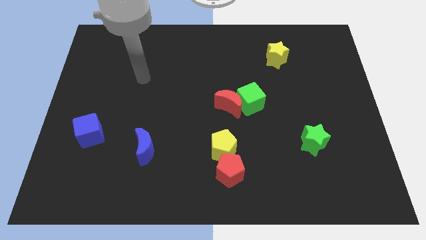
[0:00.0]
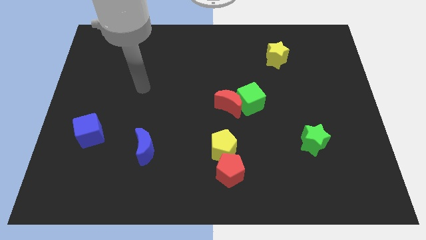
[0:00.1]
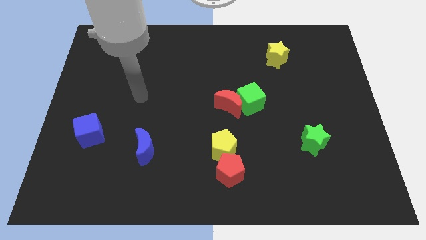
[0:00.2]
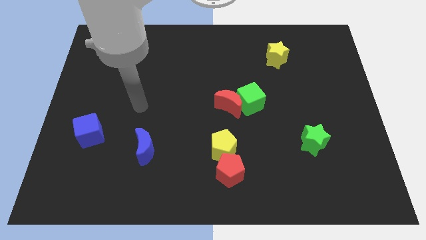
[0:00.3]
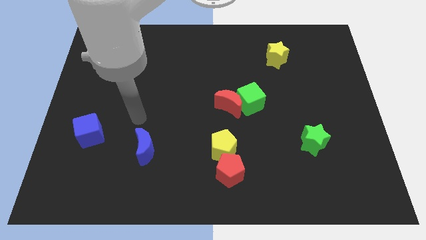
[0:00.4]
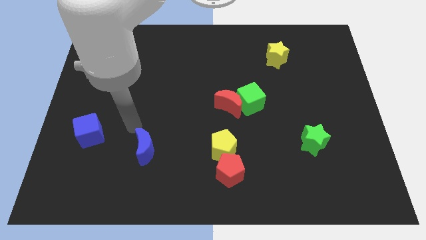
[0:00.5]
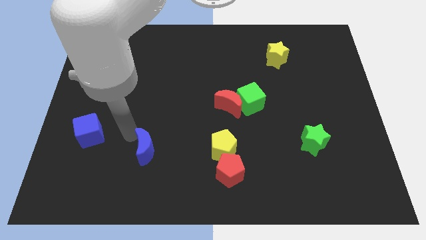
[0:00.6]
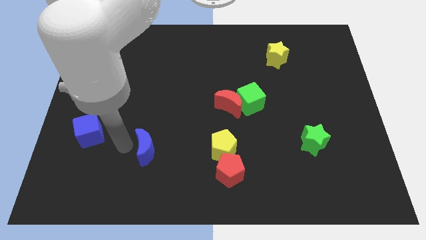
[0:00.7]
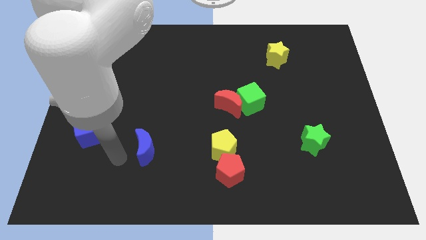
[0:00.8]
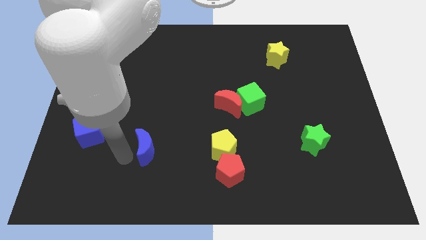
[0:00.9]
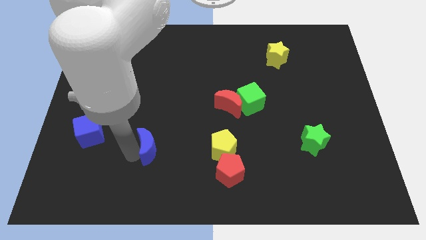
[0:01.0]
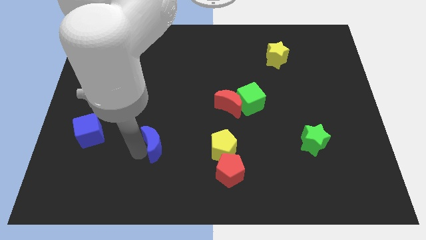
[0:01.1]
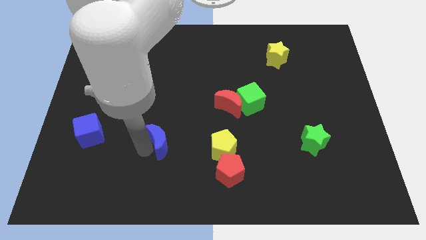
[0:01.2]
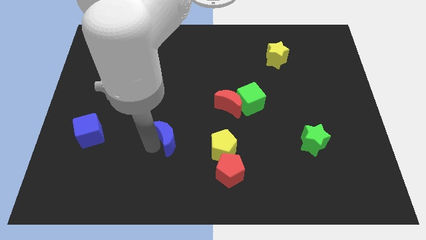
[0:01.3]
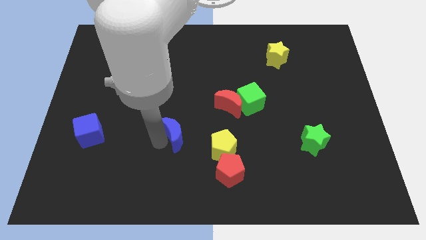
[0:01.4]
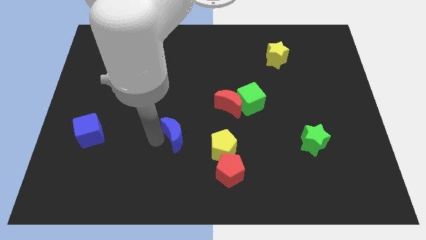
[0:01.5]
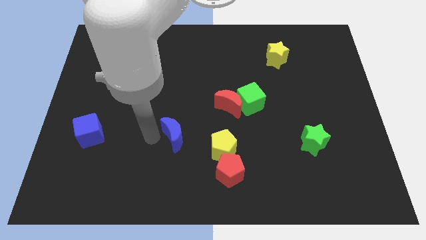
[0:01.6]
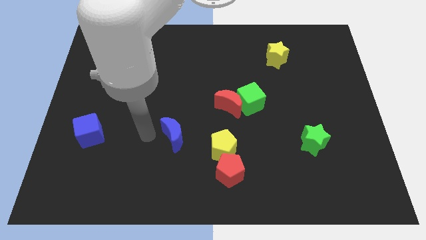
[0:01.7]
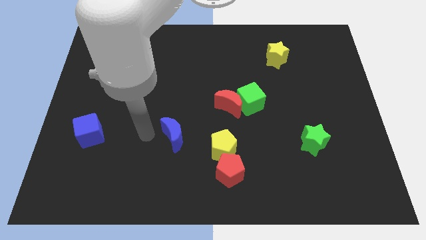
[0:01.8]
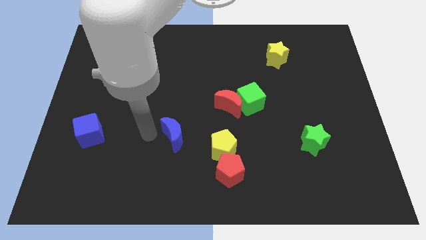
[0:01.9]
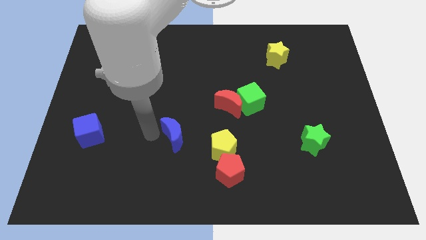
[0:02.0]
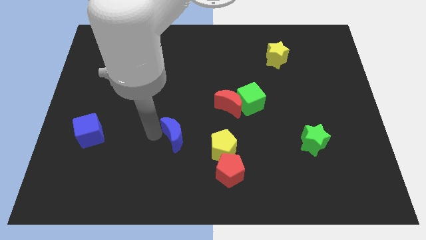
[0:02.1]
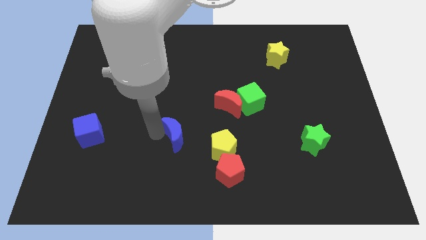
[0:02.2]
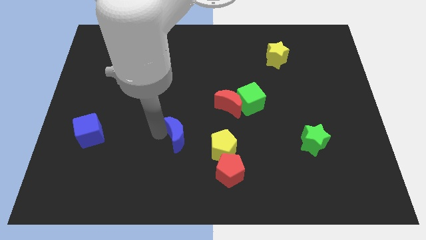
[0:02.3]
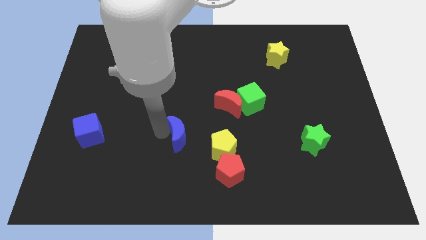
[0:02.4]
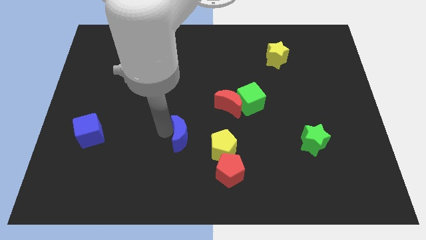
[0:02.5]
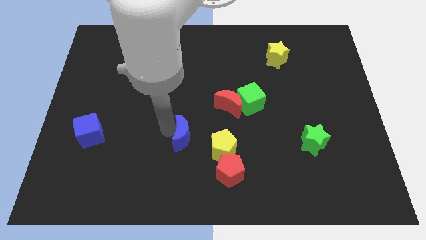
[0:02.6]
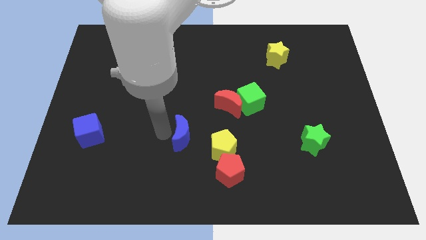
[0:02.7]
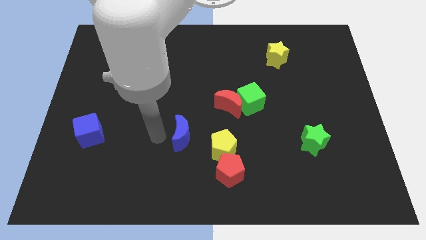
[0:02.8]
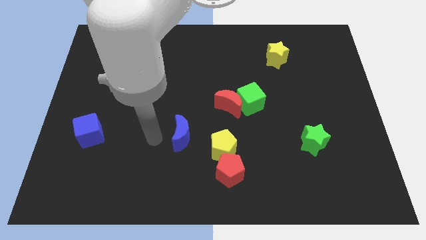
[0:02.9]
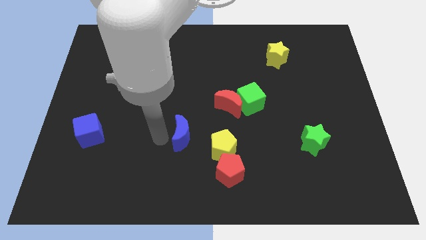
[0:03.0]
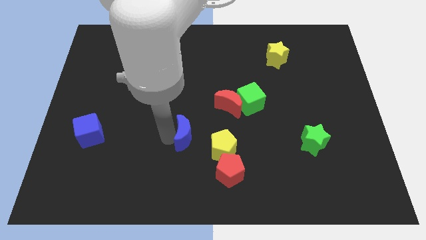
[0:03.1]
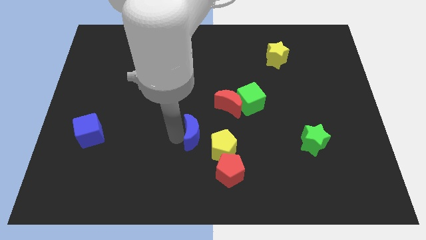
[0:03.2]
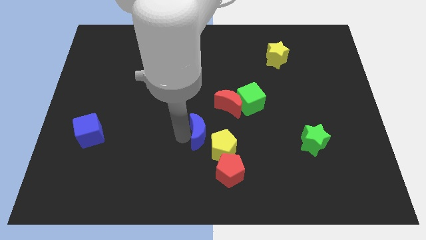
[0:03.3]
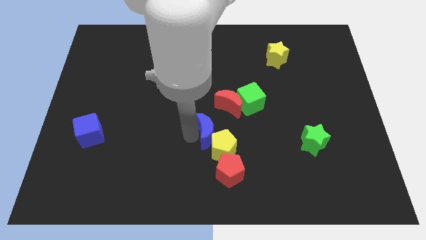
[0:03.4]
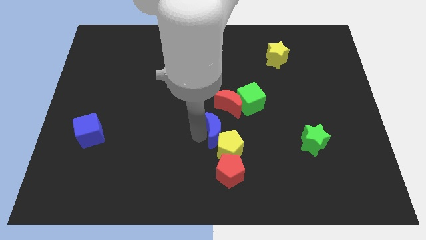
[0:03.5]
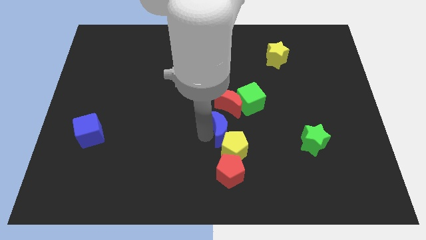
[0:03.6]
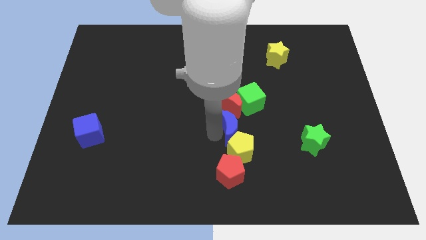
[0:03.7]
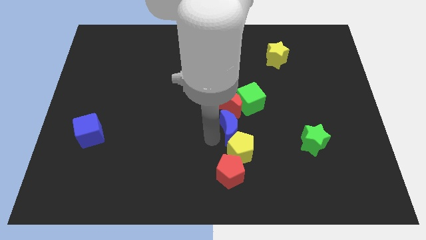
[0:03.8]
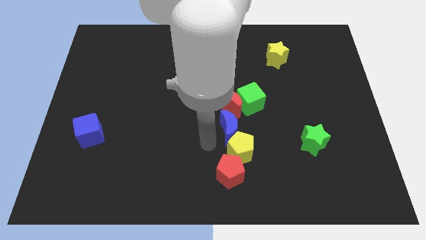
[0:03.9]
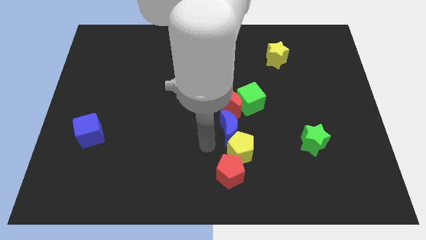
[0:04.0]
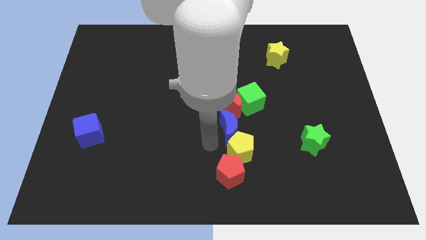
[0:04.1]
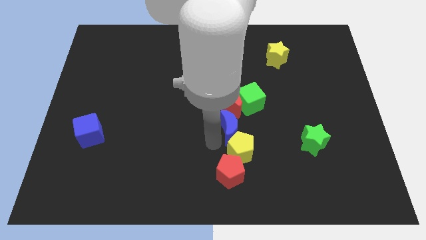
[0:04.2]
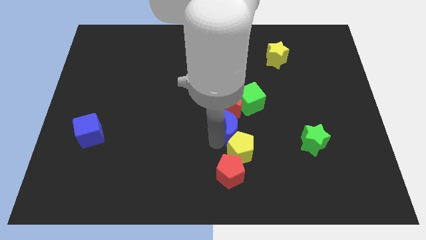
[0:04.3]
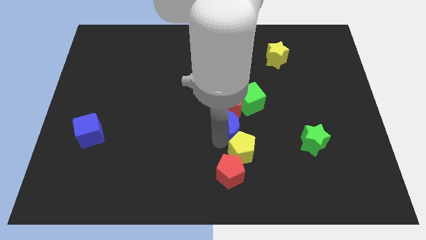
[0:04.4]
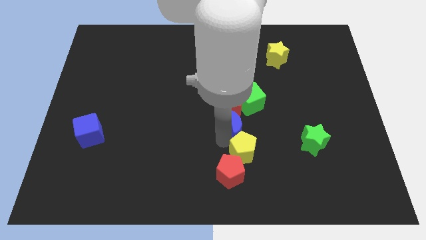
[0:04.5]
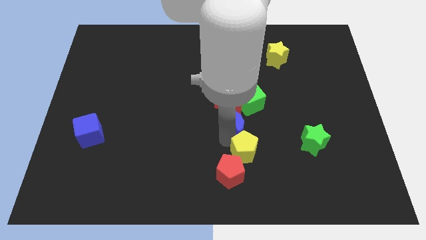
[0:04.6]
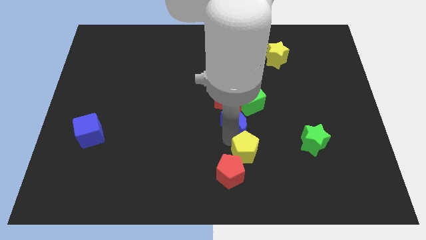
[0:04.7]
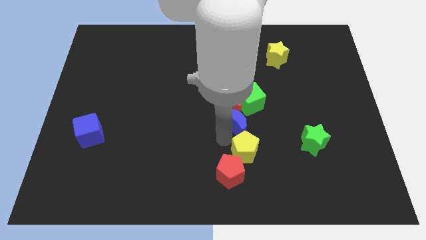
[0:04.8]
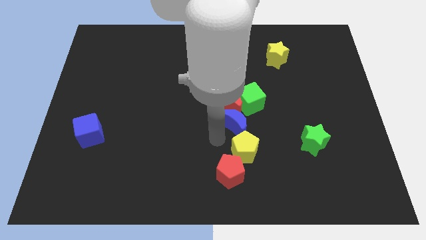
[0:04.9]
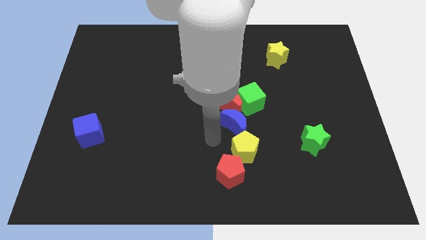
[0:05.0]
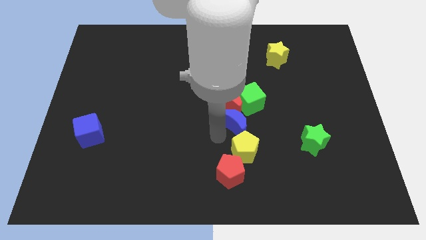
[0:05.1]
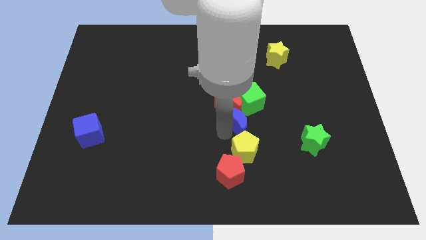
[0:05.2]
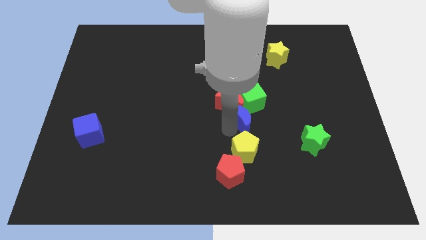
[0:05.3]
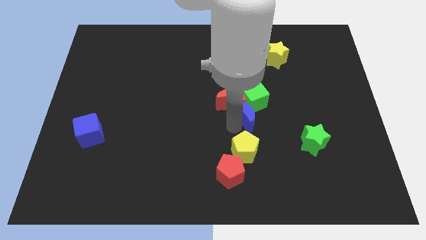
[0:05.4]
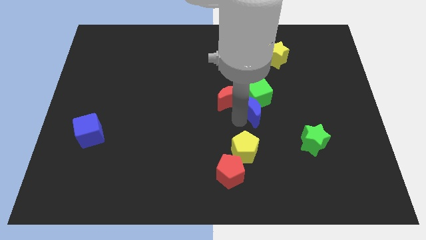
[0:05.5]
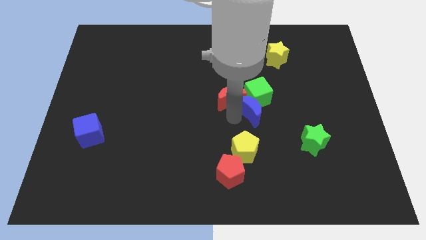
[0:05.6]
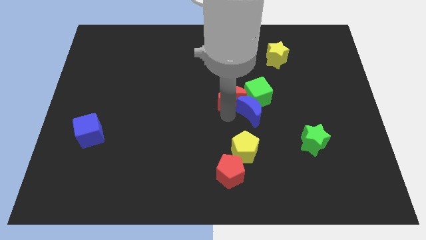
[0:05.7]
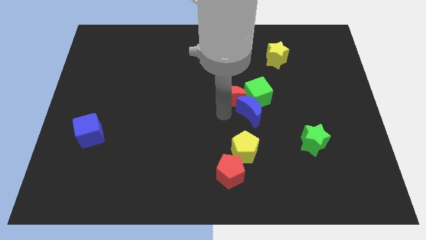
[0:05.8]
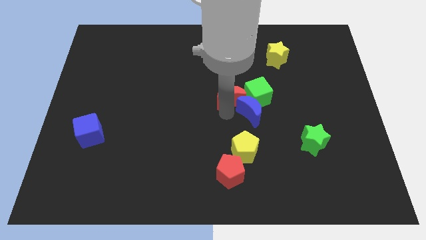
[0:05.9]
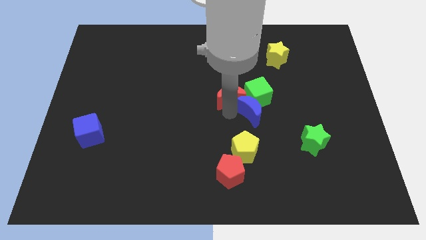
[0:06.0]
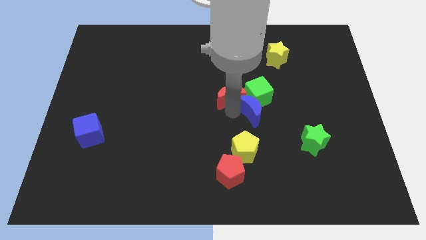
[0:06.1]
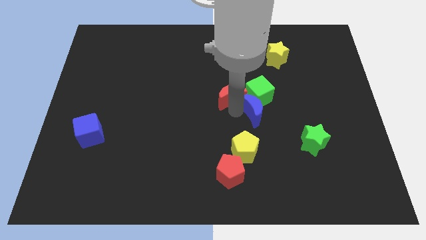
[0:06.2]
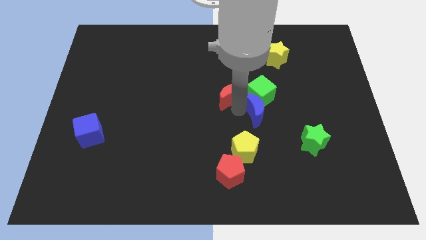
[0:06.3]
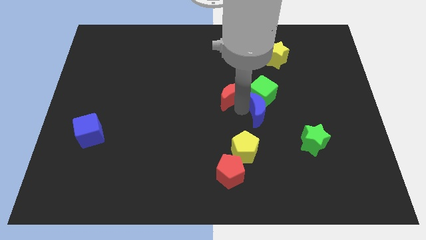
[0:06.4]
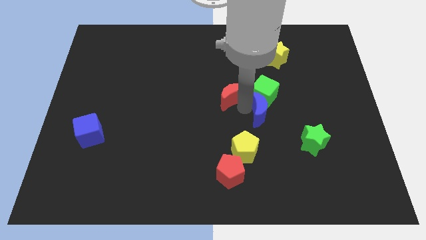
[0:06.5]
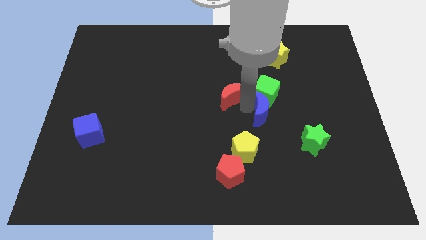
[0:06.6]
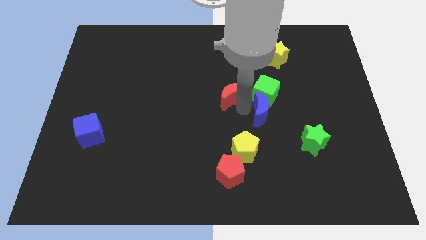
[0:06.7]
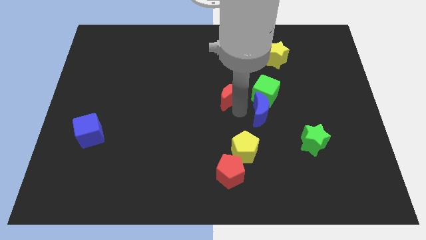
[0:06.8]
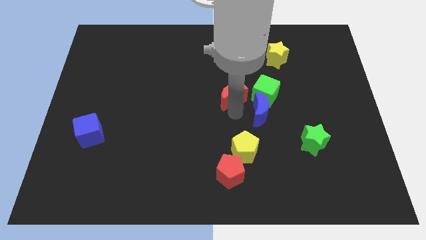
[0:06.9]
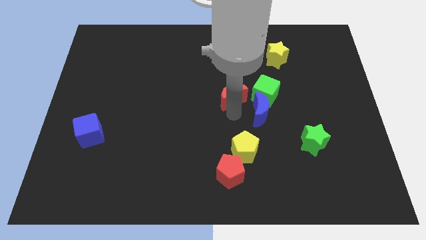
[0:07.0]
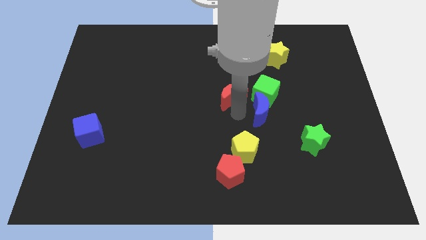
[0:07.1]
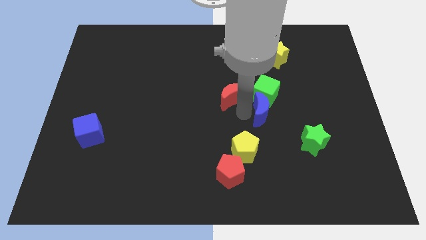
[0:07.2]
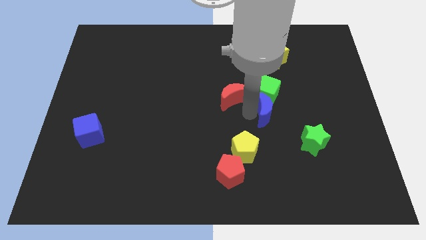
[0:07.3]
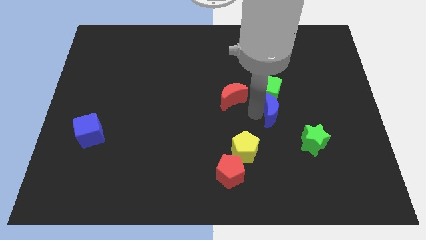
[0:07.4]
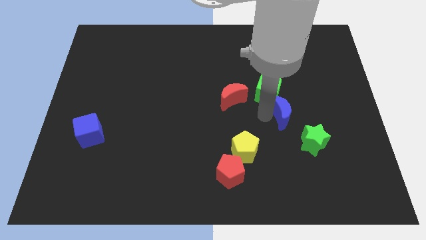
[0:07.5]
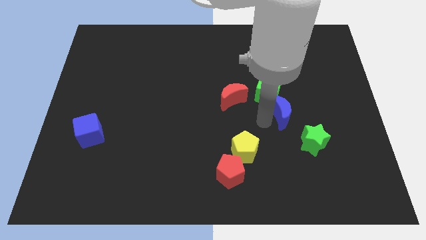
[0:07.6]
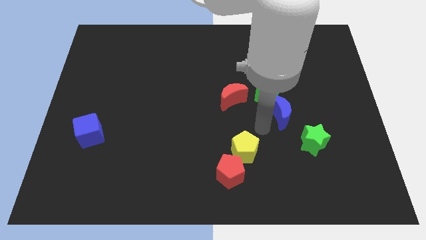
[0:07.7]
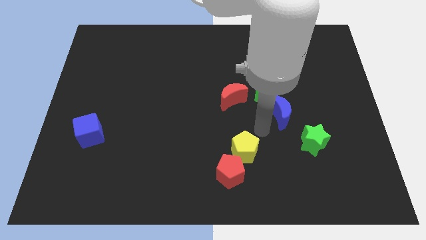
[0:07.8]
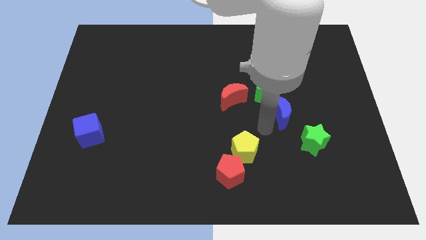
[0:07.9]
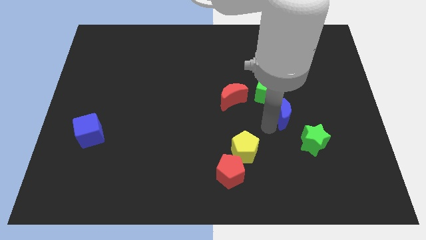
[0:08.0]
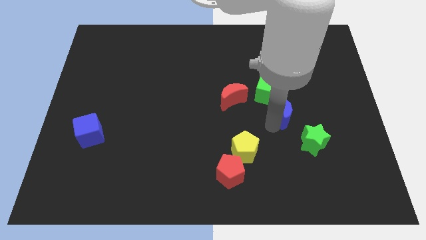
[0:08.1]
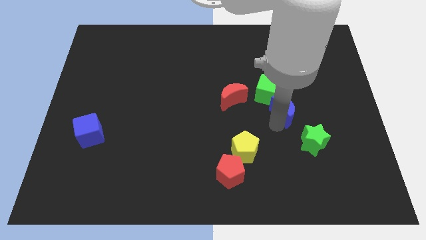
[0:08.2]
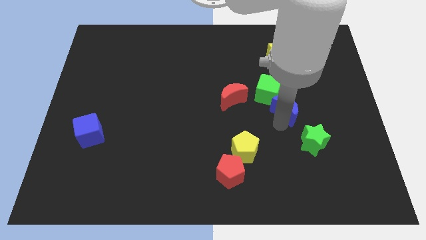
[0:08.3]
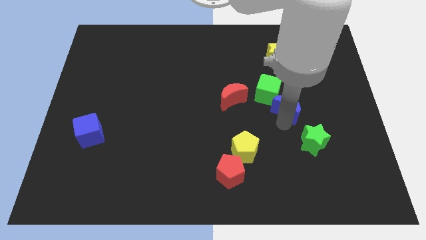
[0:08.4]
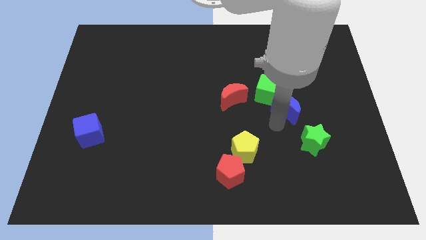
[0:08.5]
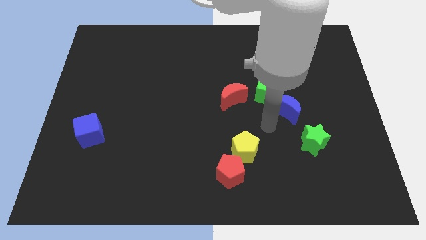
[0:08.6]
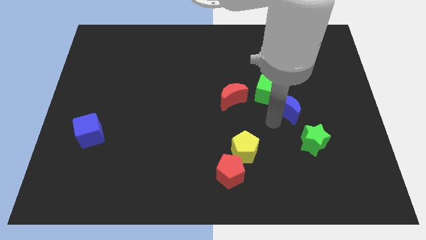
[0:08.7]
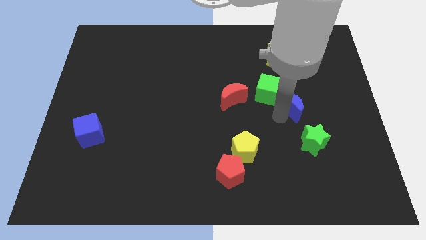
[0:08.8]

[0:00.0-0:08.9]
put the blue moon right of the green cube
